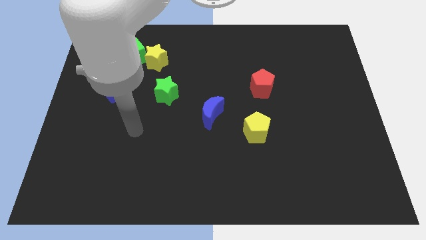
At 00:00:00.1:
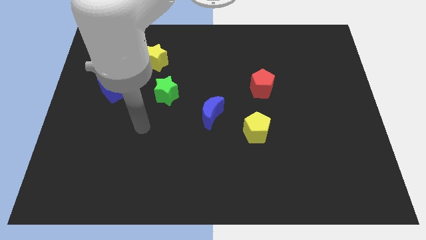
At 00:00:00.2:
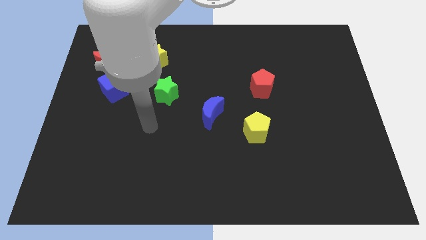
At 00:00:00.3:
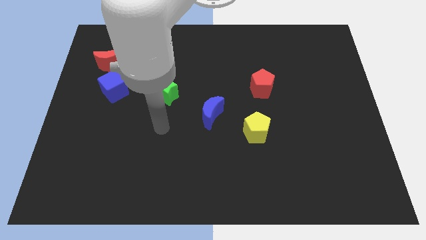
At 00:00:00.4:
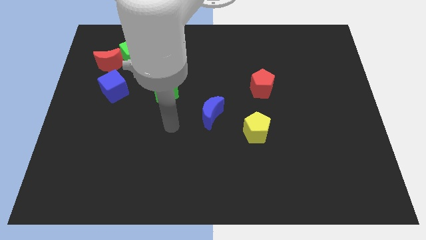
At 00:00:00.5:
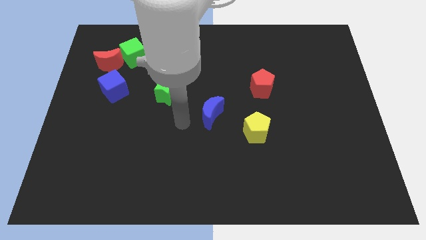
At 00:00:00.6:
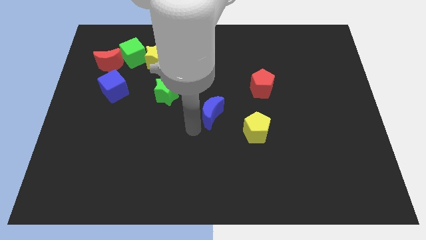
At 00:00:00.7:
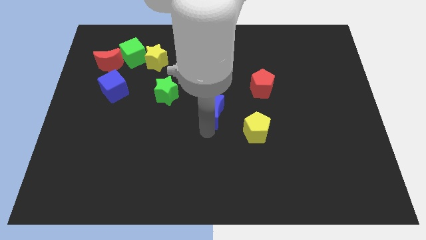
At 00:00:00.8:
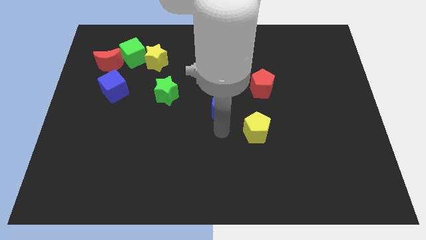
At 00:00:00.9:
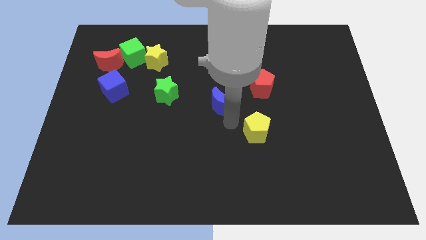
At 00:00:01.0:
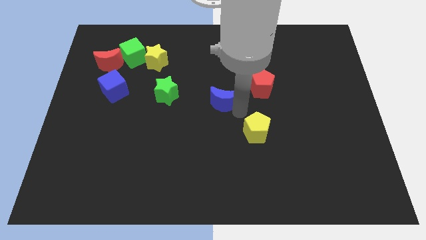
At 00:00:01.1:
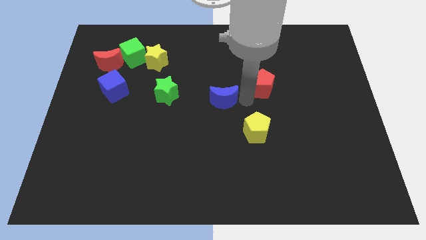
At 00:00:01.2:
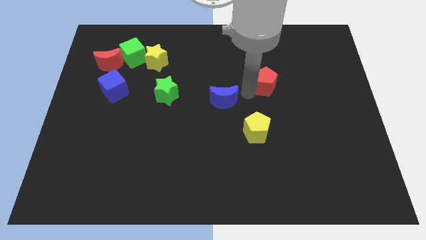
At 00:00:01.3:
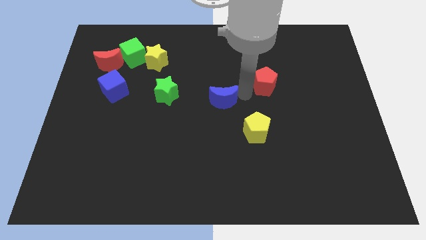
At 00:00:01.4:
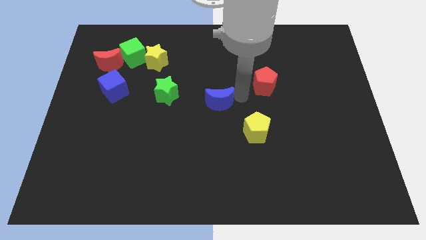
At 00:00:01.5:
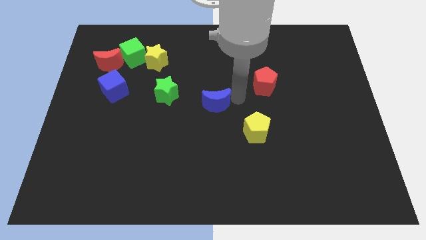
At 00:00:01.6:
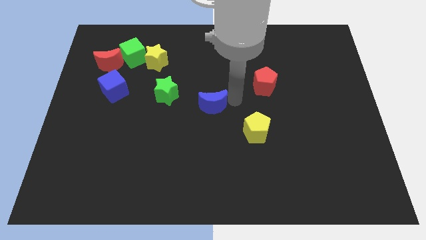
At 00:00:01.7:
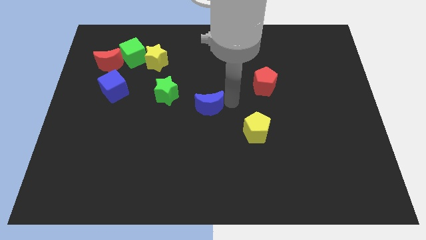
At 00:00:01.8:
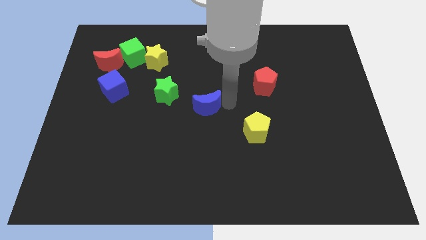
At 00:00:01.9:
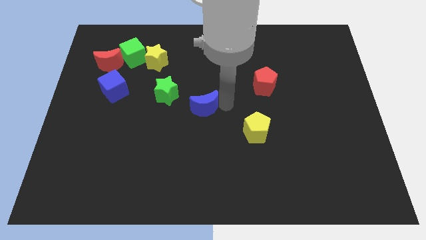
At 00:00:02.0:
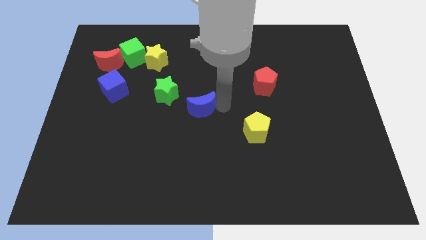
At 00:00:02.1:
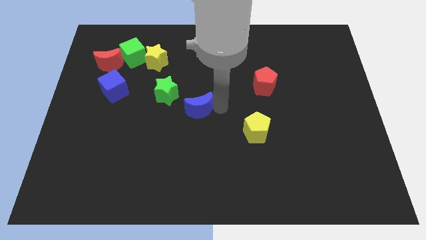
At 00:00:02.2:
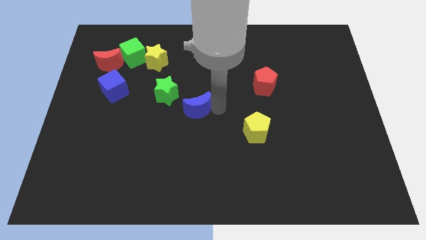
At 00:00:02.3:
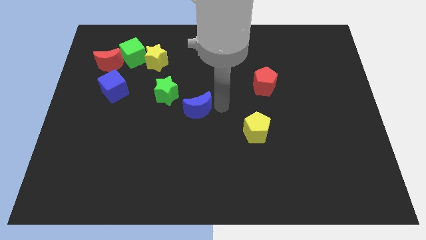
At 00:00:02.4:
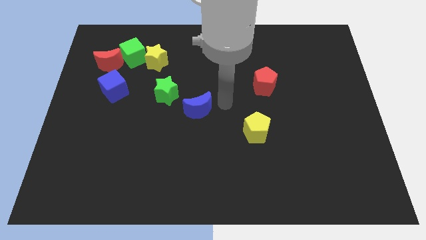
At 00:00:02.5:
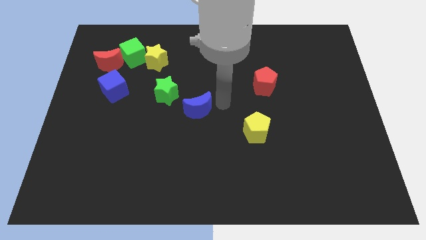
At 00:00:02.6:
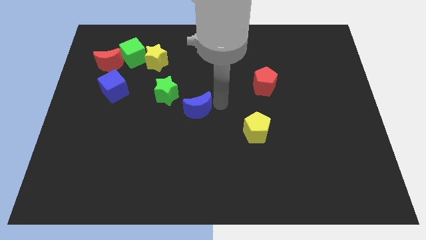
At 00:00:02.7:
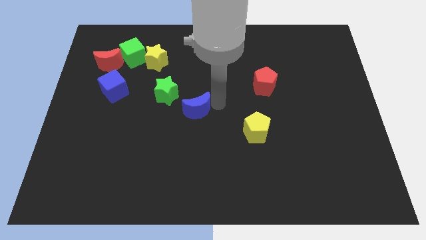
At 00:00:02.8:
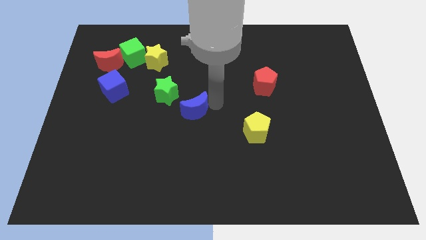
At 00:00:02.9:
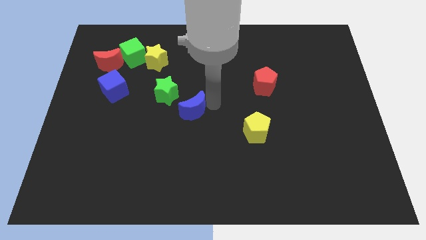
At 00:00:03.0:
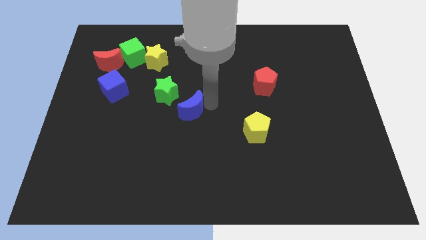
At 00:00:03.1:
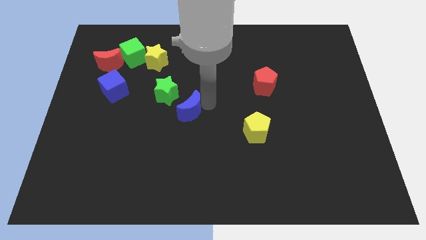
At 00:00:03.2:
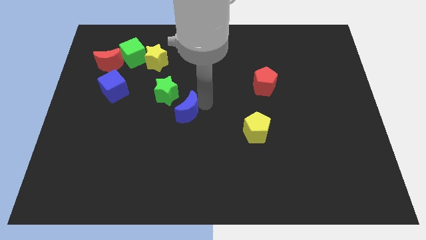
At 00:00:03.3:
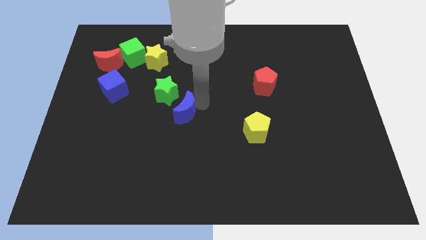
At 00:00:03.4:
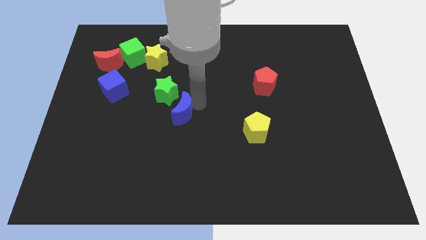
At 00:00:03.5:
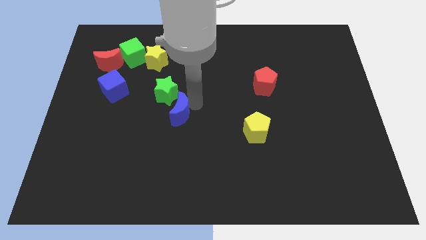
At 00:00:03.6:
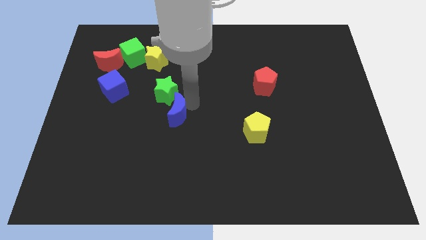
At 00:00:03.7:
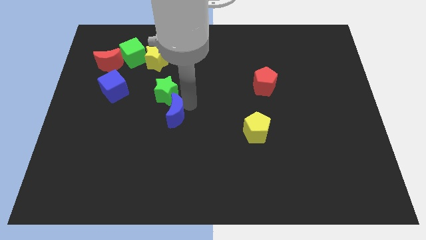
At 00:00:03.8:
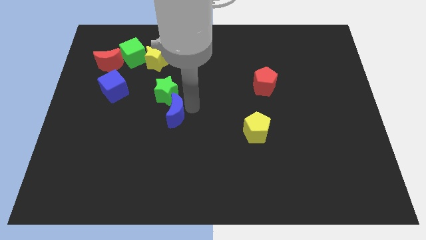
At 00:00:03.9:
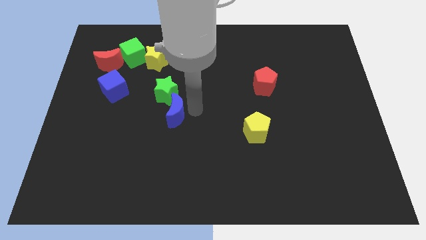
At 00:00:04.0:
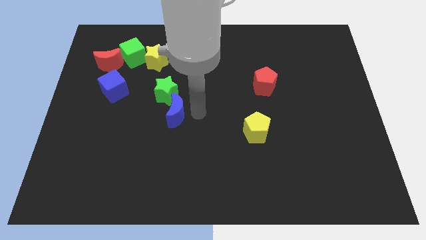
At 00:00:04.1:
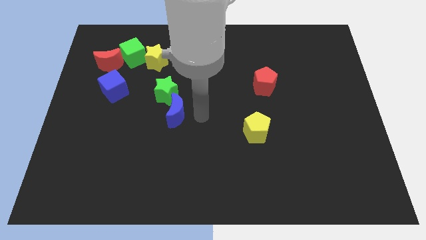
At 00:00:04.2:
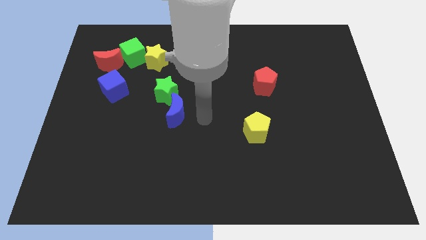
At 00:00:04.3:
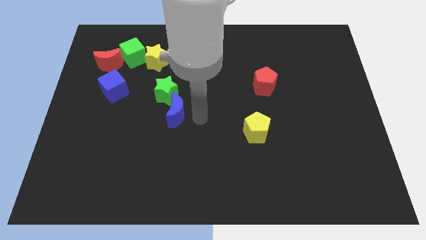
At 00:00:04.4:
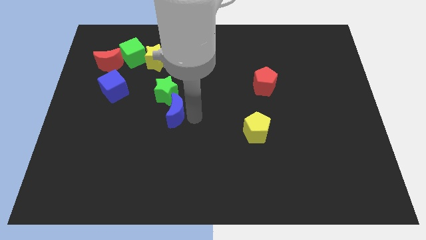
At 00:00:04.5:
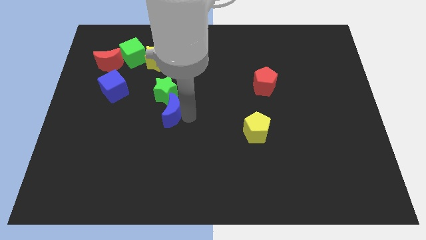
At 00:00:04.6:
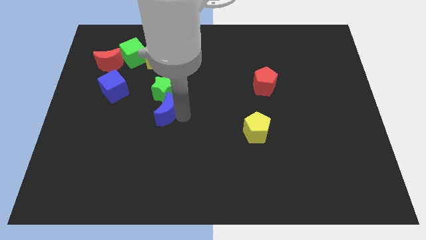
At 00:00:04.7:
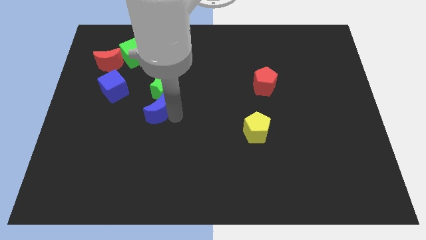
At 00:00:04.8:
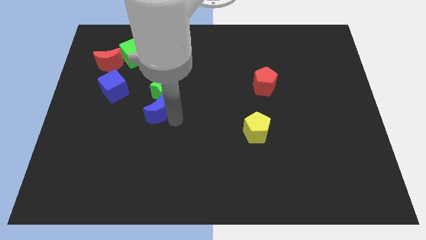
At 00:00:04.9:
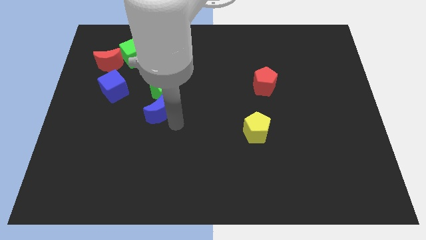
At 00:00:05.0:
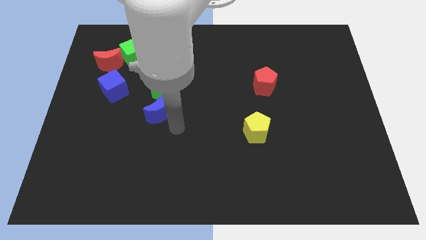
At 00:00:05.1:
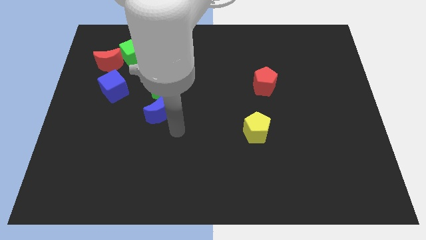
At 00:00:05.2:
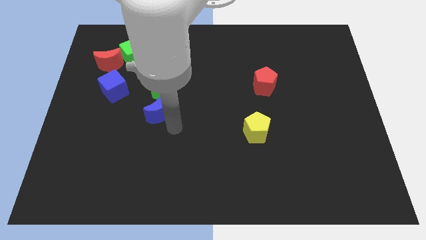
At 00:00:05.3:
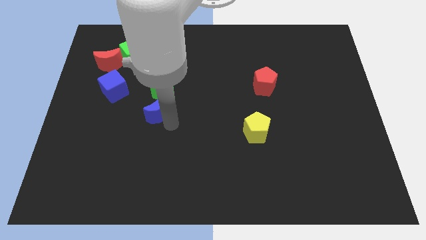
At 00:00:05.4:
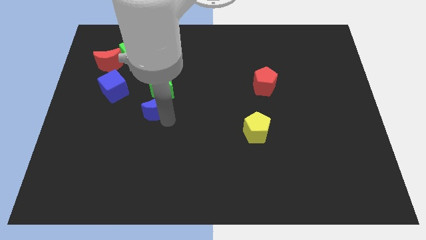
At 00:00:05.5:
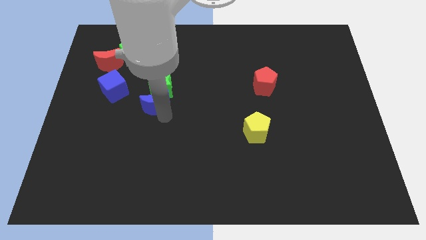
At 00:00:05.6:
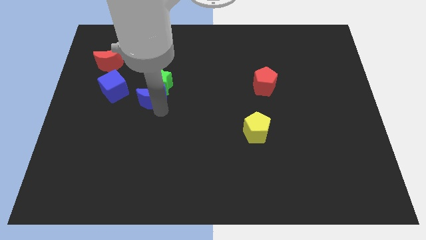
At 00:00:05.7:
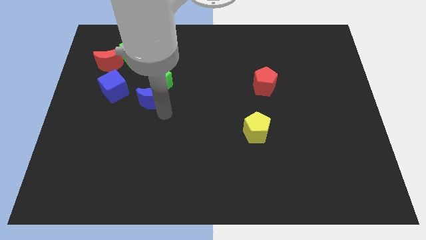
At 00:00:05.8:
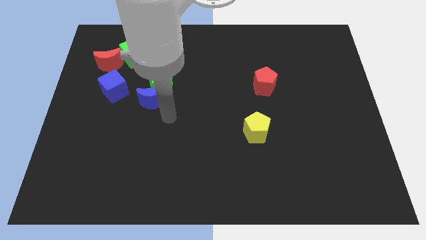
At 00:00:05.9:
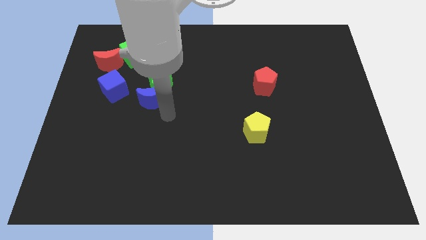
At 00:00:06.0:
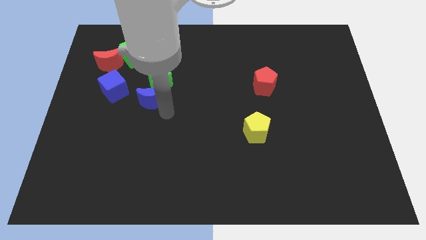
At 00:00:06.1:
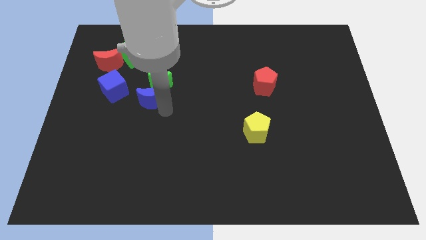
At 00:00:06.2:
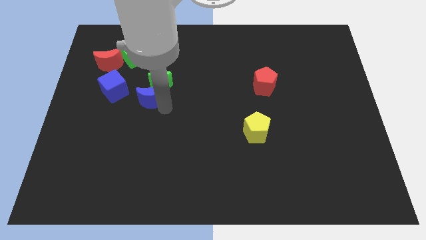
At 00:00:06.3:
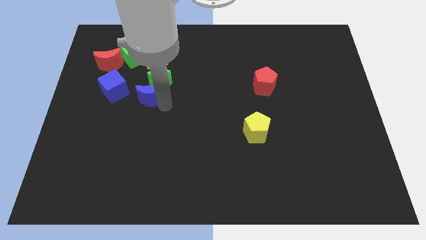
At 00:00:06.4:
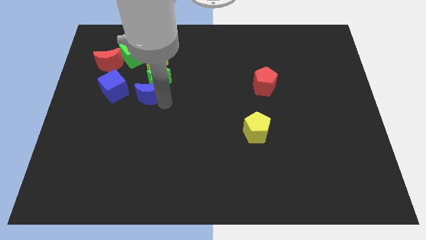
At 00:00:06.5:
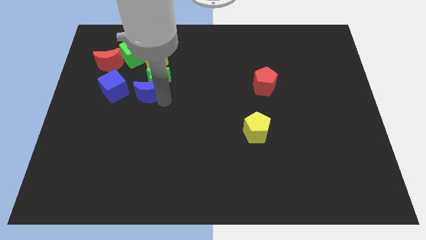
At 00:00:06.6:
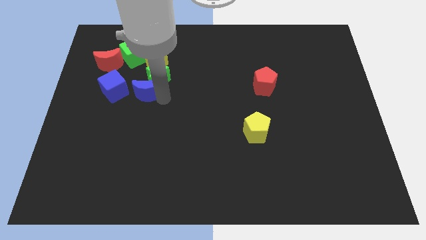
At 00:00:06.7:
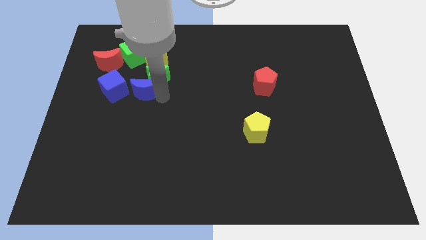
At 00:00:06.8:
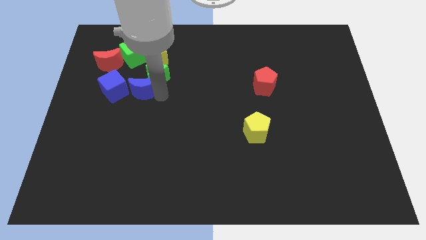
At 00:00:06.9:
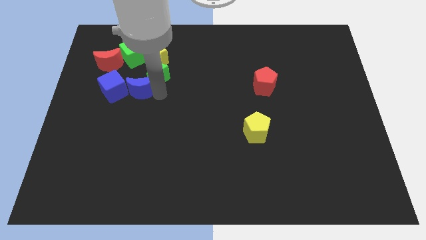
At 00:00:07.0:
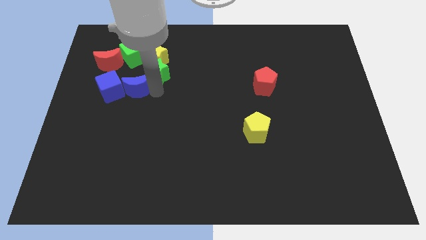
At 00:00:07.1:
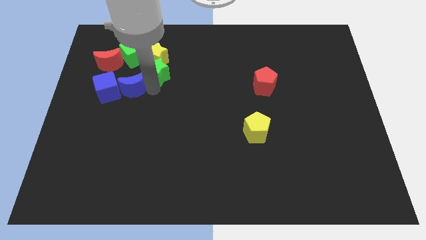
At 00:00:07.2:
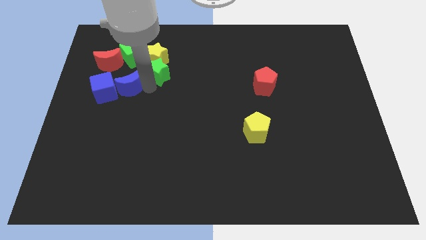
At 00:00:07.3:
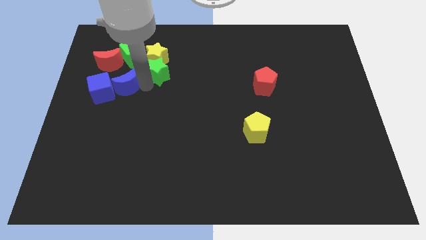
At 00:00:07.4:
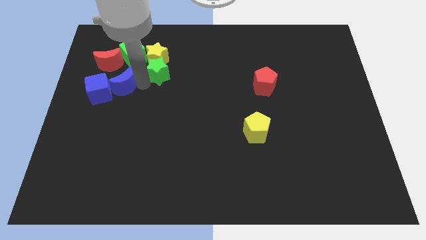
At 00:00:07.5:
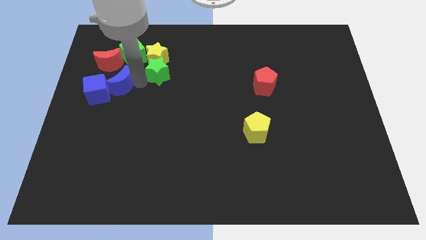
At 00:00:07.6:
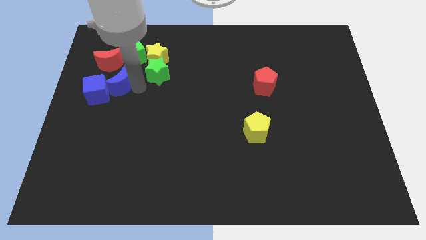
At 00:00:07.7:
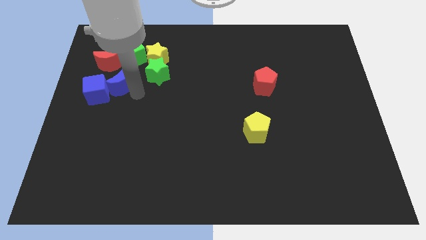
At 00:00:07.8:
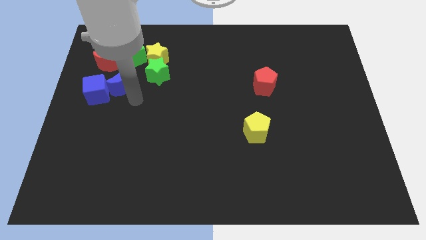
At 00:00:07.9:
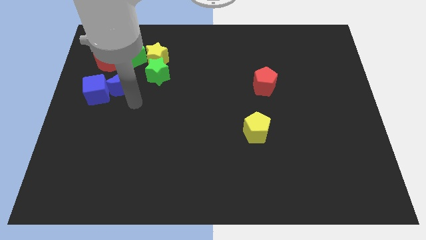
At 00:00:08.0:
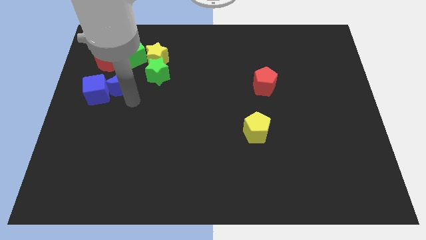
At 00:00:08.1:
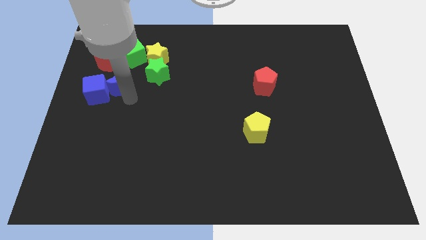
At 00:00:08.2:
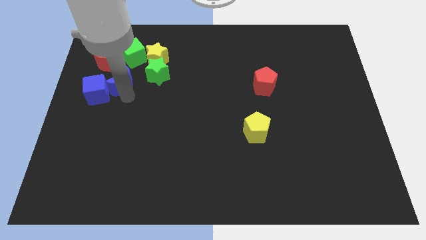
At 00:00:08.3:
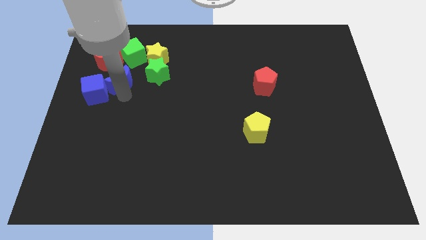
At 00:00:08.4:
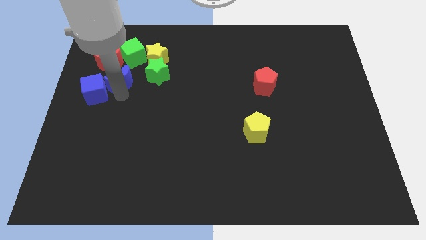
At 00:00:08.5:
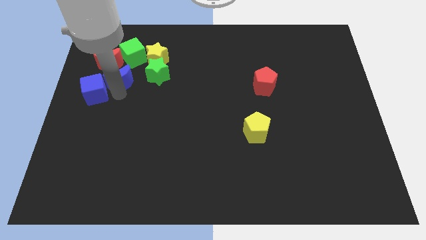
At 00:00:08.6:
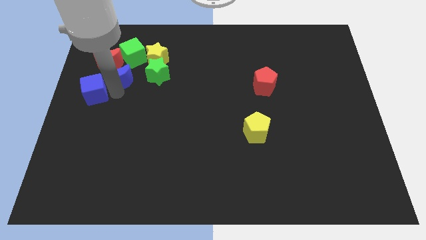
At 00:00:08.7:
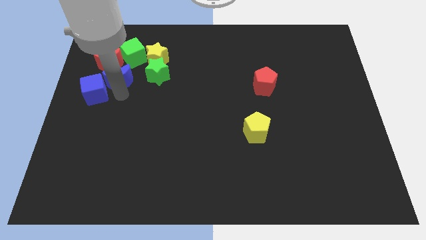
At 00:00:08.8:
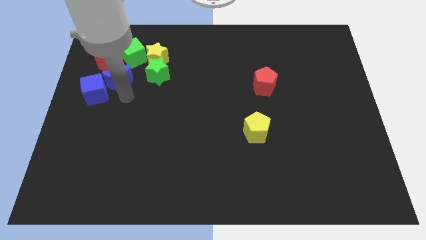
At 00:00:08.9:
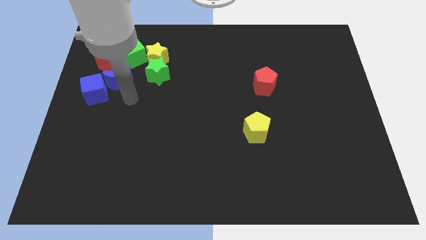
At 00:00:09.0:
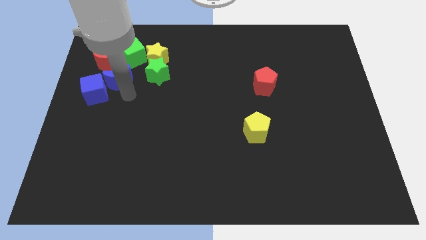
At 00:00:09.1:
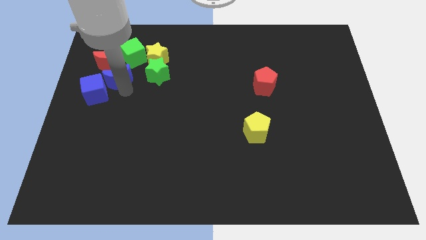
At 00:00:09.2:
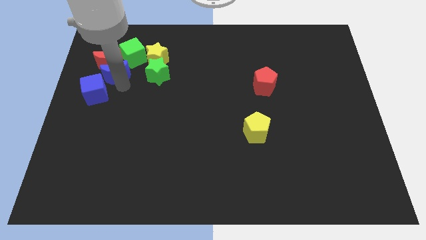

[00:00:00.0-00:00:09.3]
put the blue moon next to the red moon
